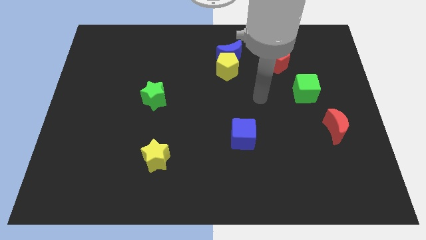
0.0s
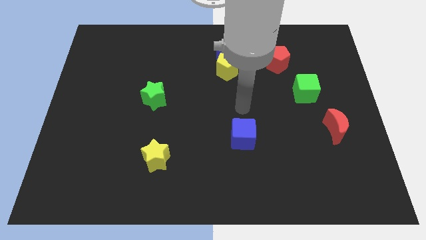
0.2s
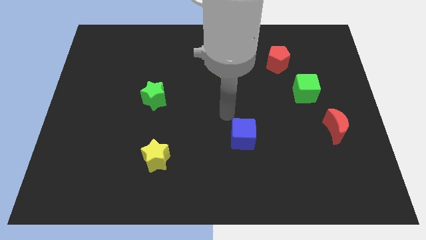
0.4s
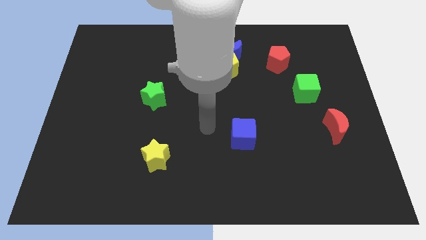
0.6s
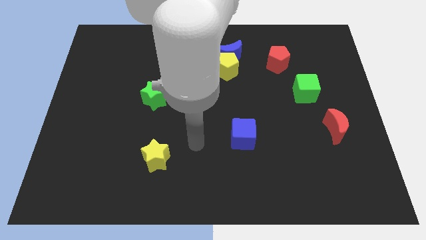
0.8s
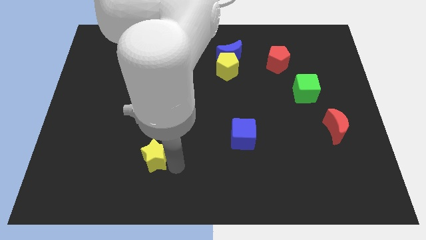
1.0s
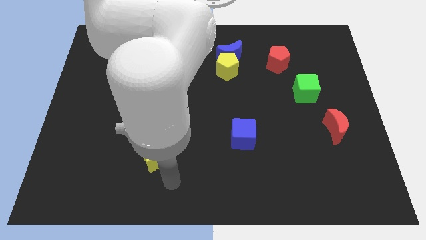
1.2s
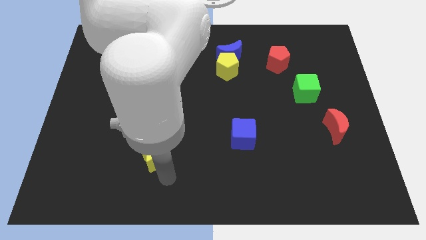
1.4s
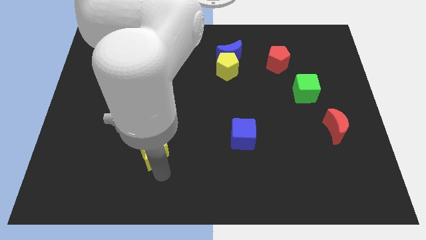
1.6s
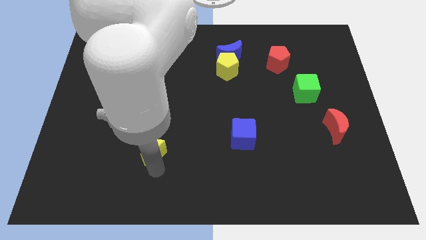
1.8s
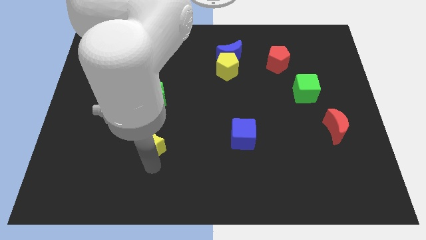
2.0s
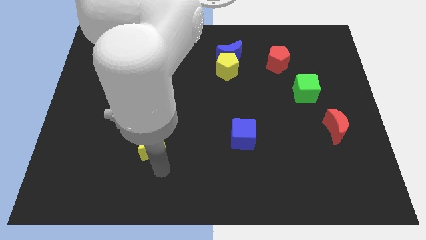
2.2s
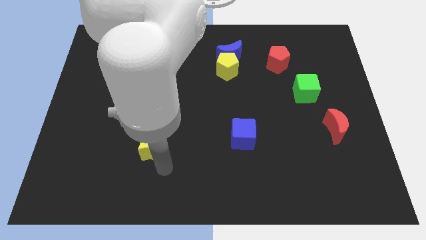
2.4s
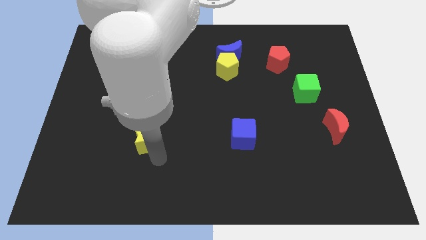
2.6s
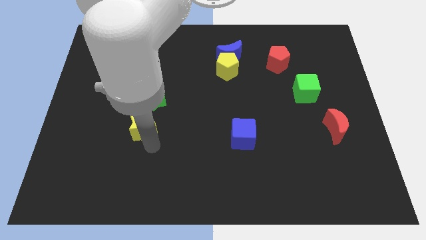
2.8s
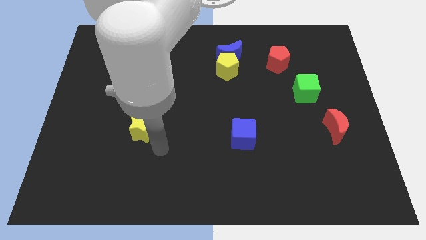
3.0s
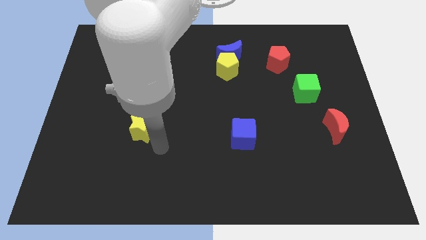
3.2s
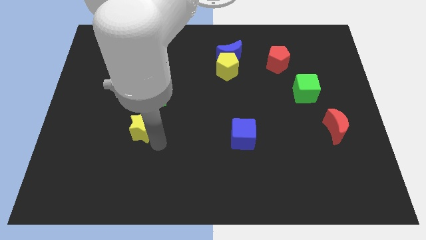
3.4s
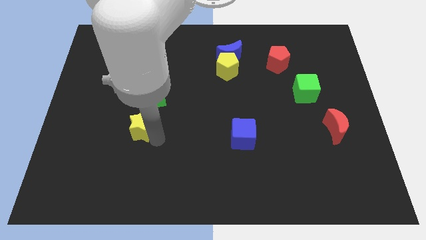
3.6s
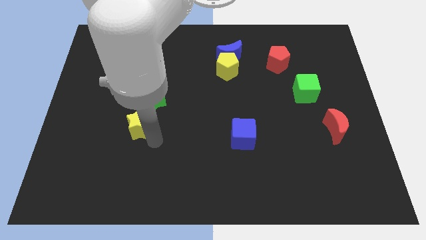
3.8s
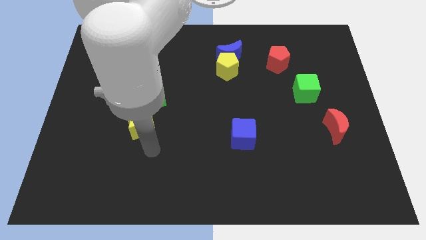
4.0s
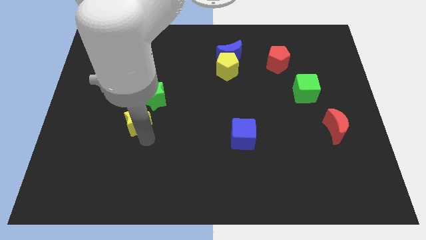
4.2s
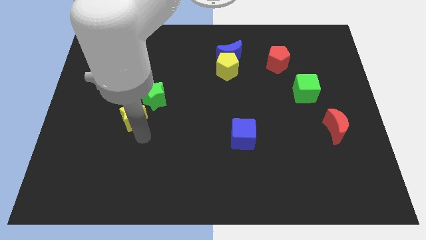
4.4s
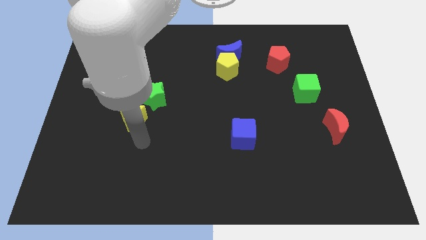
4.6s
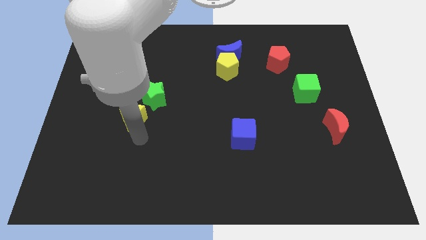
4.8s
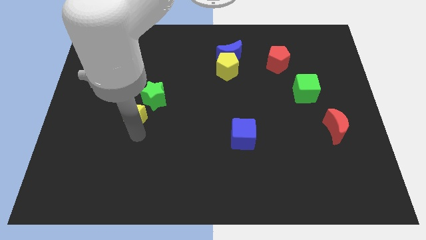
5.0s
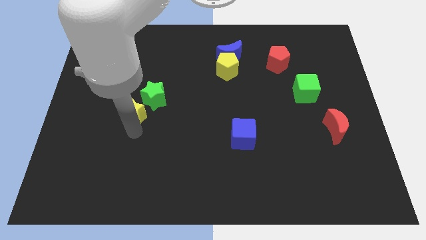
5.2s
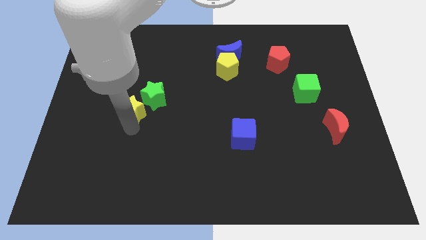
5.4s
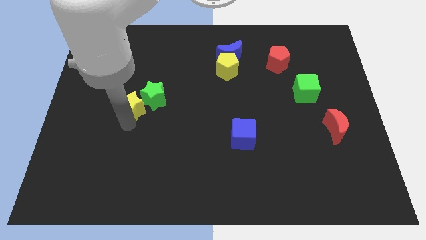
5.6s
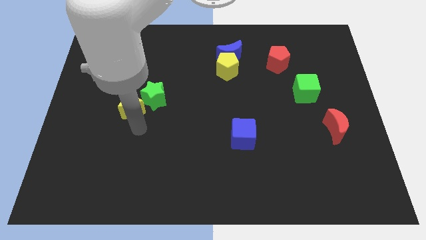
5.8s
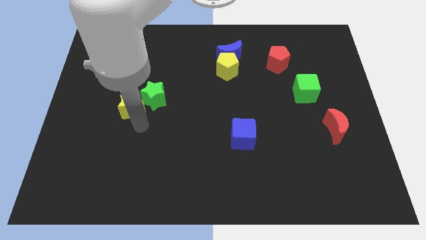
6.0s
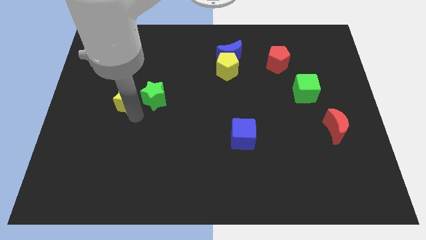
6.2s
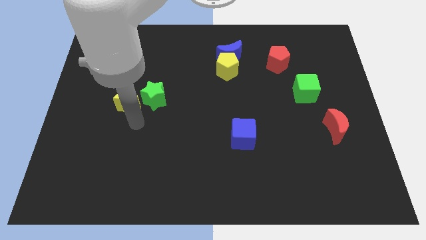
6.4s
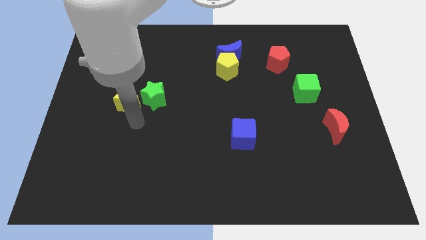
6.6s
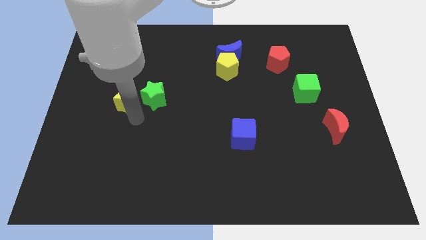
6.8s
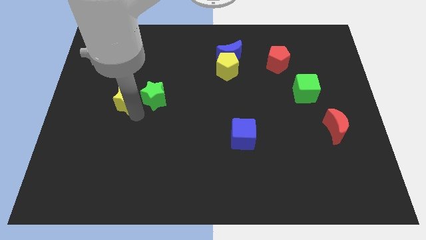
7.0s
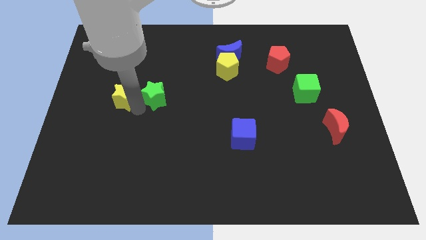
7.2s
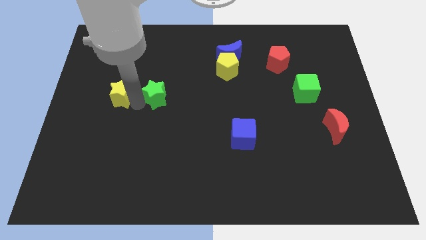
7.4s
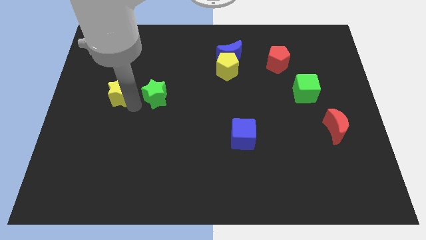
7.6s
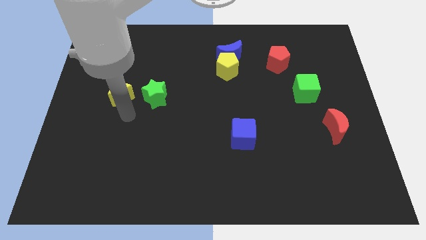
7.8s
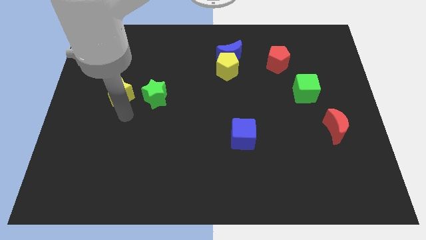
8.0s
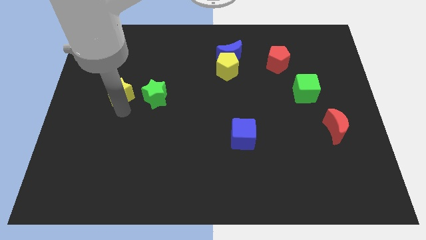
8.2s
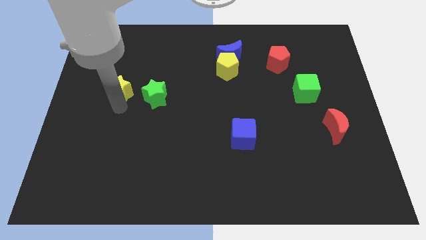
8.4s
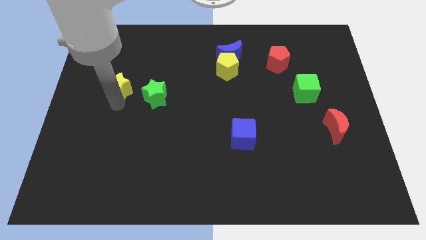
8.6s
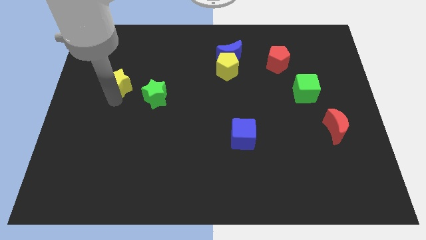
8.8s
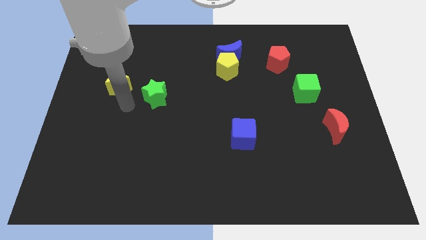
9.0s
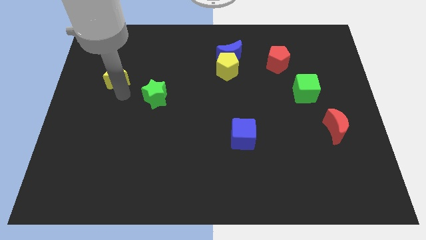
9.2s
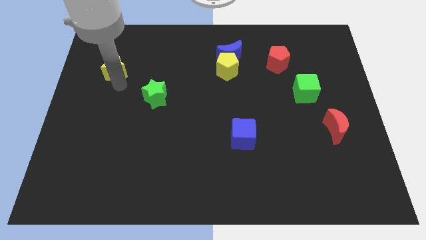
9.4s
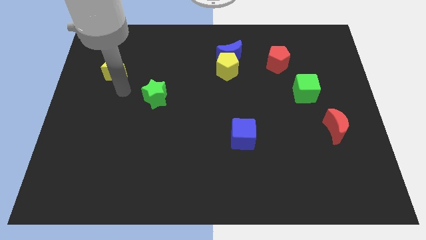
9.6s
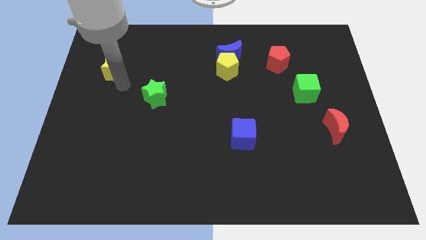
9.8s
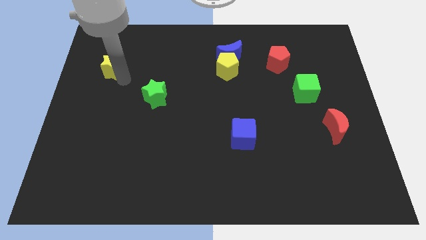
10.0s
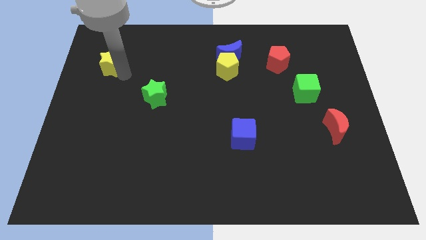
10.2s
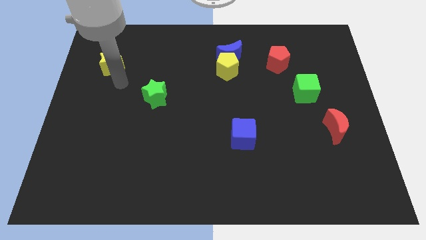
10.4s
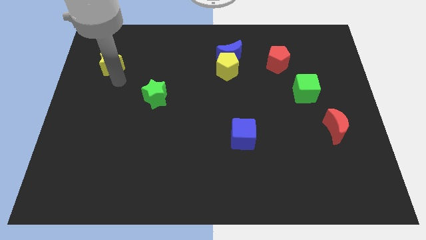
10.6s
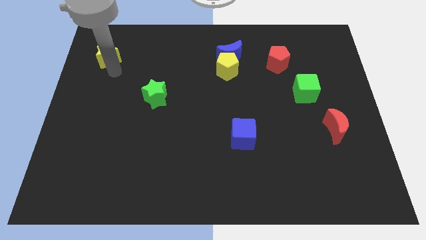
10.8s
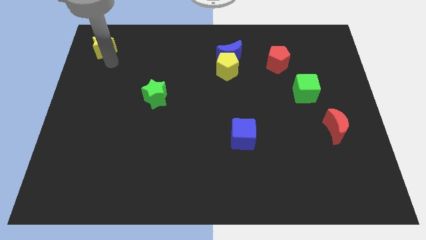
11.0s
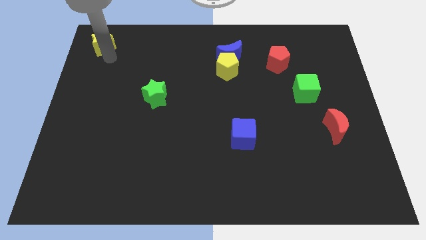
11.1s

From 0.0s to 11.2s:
push the yellow star to the upper left corner

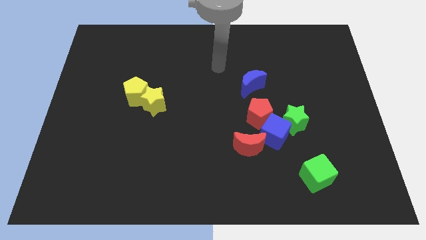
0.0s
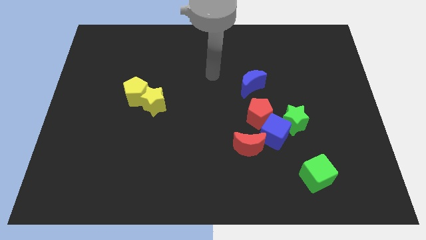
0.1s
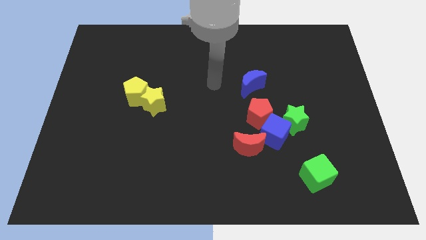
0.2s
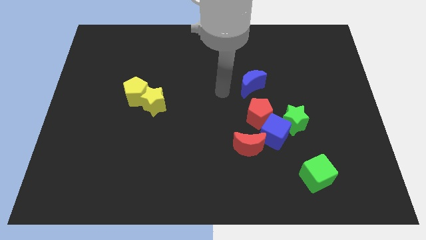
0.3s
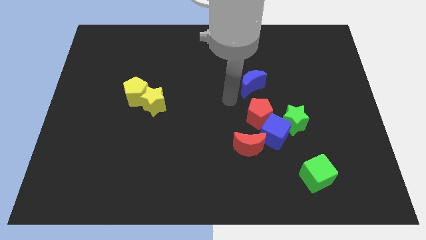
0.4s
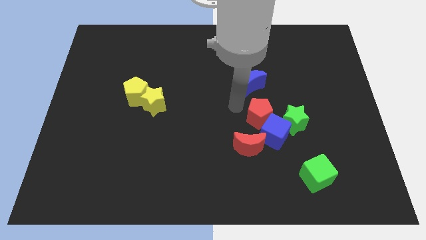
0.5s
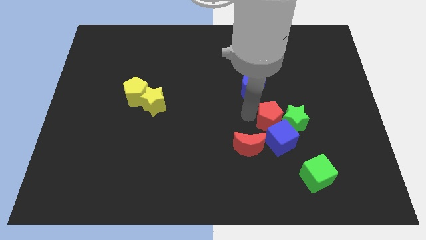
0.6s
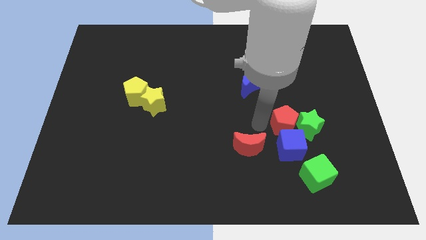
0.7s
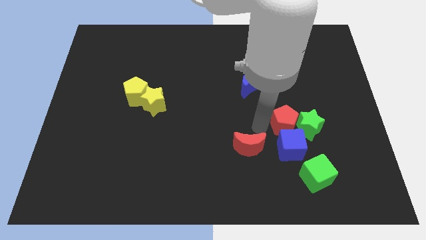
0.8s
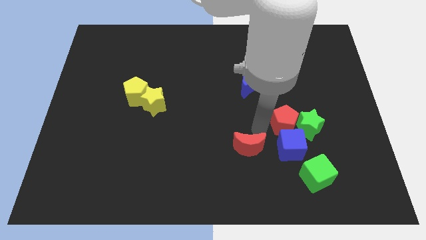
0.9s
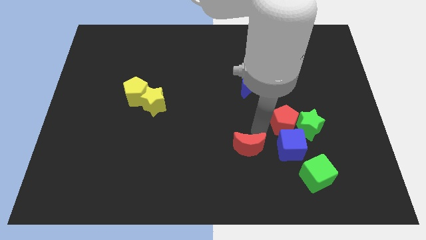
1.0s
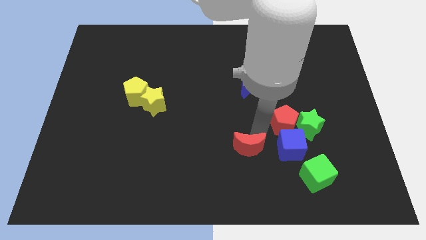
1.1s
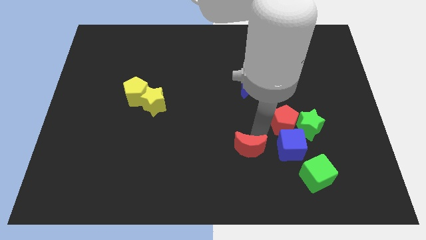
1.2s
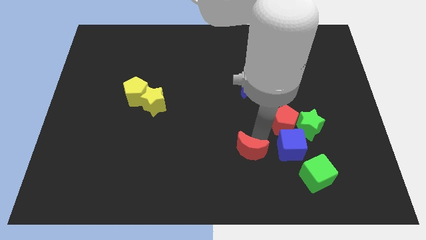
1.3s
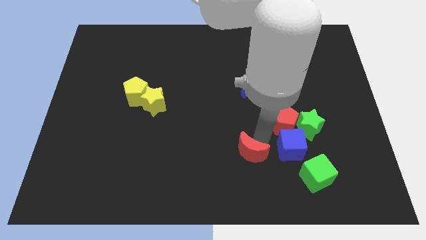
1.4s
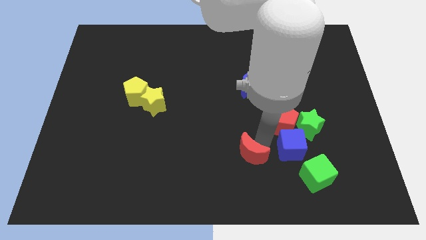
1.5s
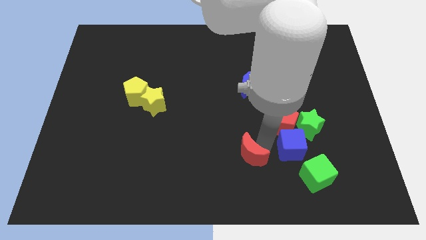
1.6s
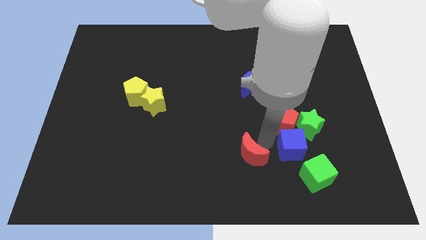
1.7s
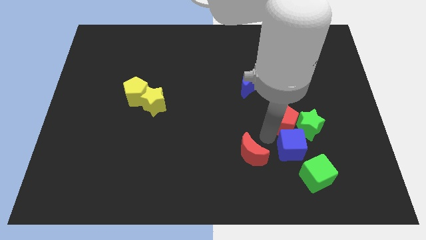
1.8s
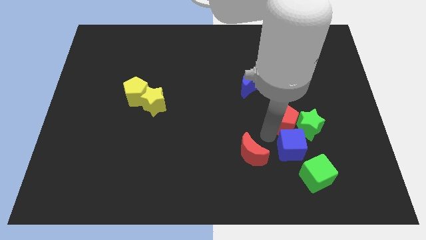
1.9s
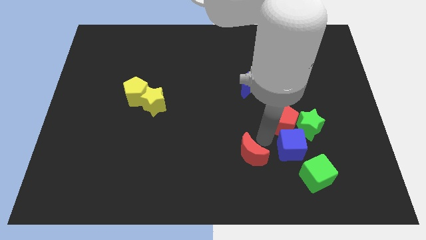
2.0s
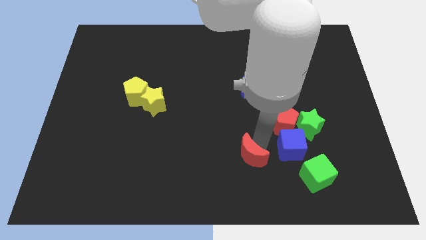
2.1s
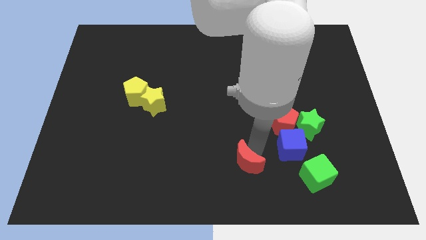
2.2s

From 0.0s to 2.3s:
push the red moon to the bottom
